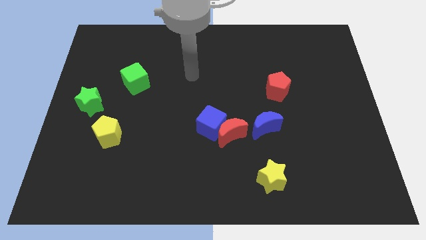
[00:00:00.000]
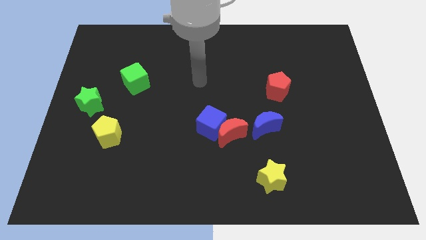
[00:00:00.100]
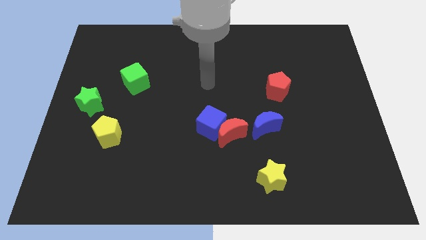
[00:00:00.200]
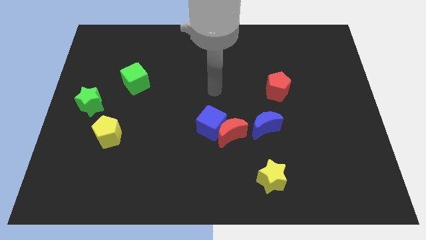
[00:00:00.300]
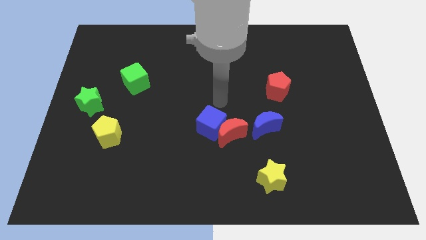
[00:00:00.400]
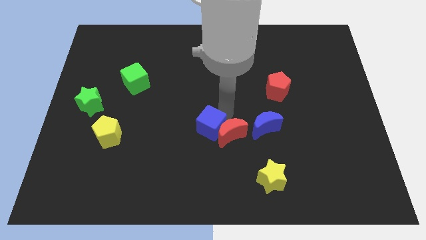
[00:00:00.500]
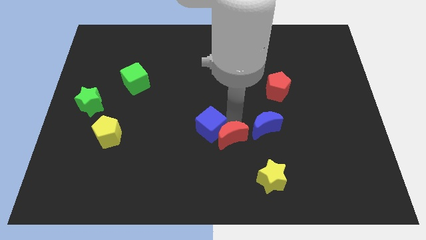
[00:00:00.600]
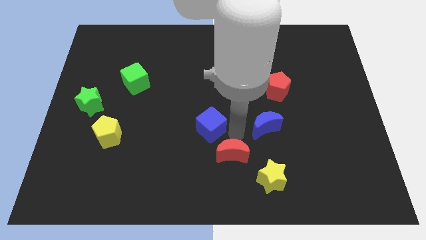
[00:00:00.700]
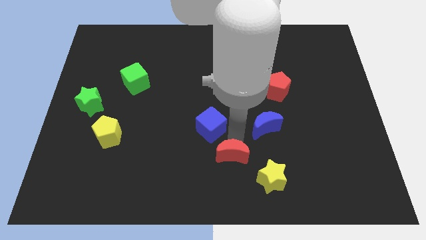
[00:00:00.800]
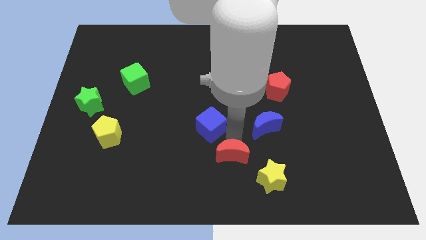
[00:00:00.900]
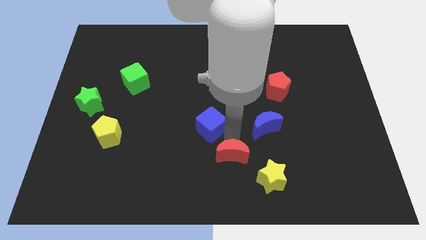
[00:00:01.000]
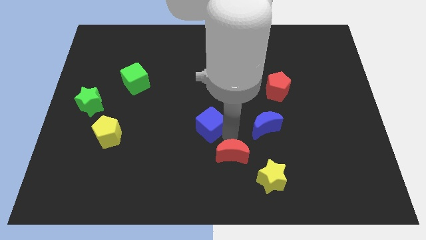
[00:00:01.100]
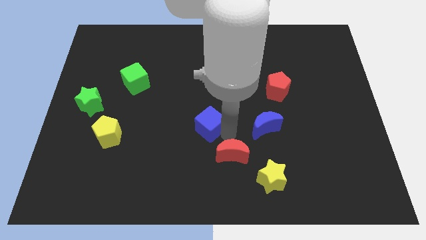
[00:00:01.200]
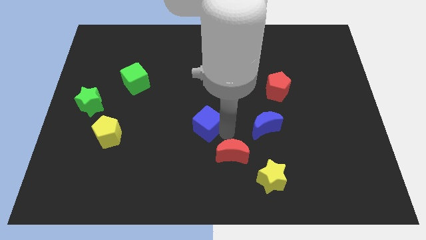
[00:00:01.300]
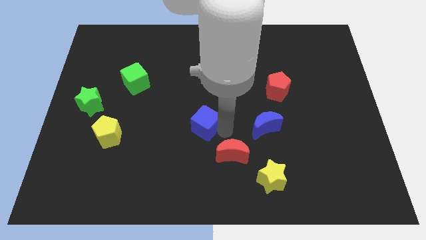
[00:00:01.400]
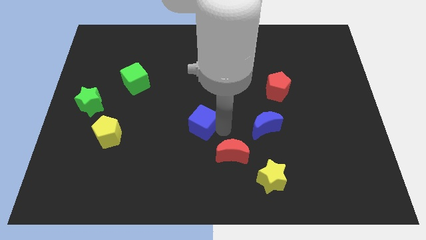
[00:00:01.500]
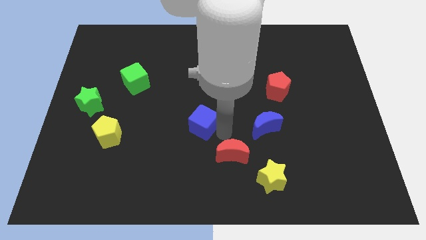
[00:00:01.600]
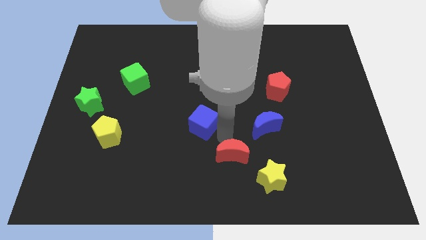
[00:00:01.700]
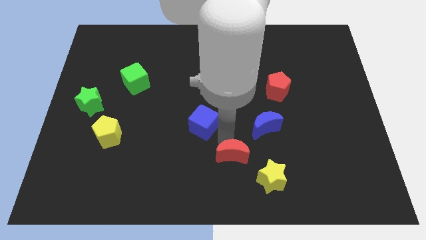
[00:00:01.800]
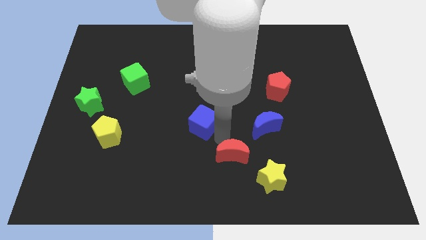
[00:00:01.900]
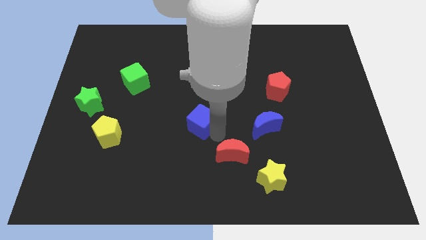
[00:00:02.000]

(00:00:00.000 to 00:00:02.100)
separate the blue cube from the red moon

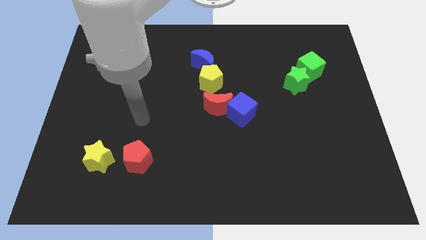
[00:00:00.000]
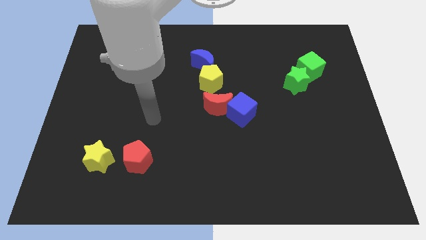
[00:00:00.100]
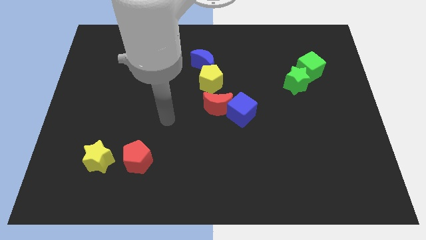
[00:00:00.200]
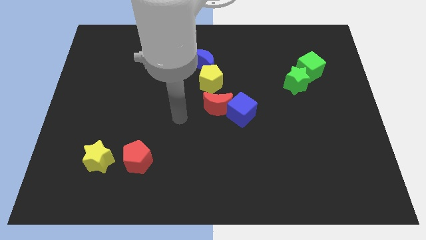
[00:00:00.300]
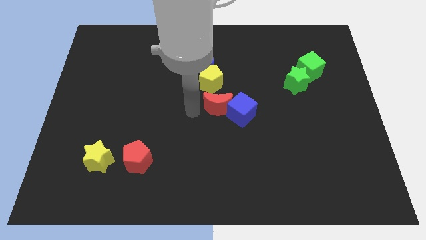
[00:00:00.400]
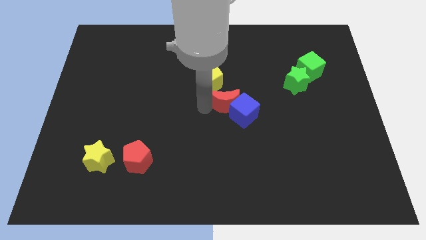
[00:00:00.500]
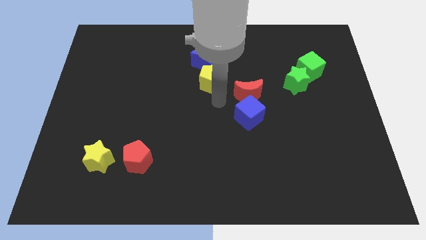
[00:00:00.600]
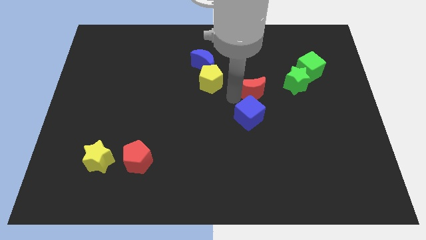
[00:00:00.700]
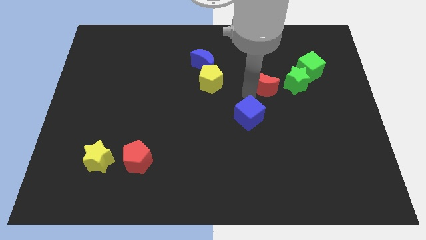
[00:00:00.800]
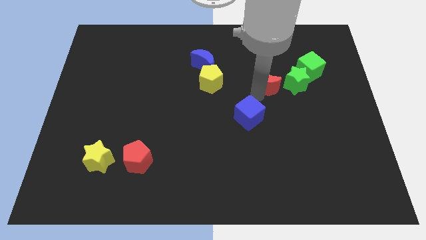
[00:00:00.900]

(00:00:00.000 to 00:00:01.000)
move the blue cube away from the red moon

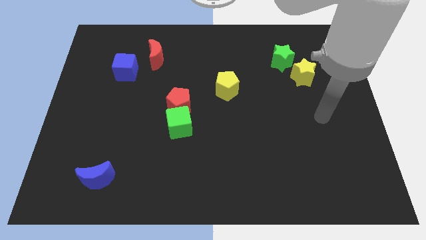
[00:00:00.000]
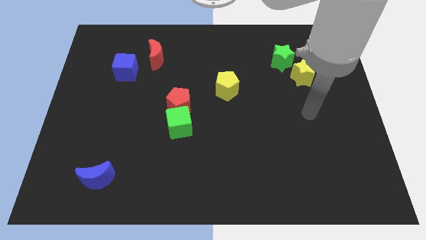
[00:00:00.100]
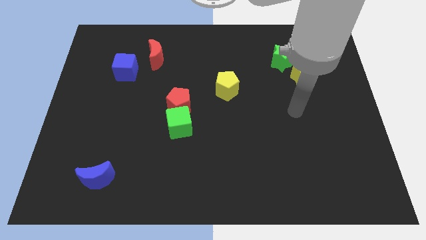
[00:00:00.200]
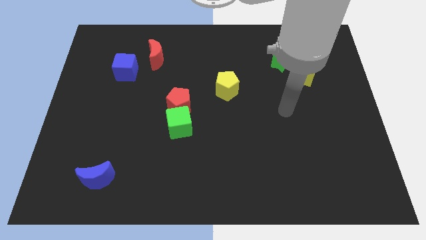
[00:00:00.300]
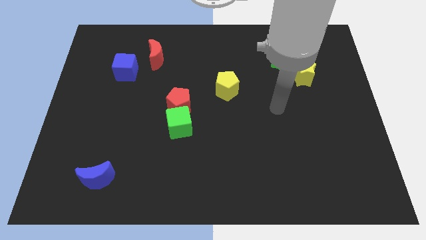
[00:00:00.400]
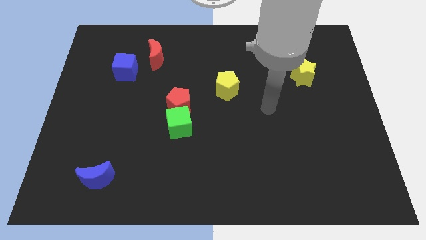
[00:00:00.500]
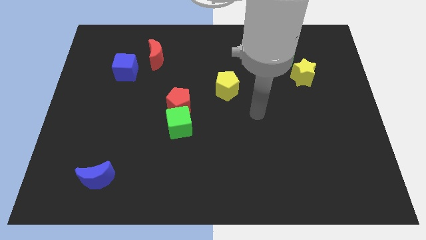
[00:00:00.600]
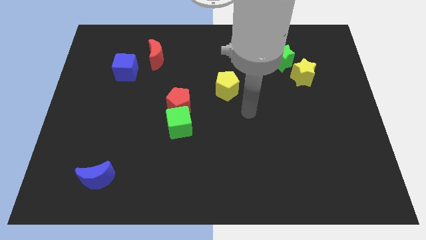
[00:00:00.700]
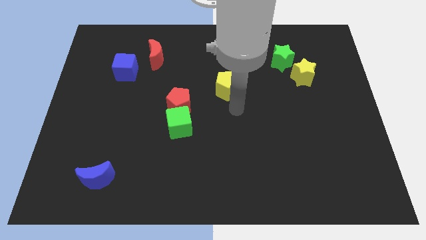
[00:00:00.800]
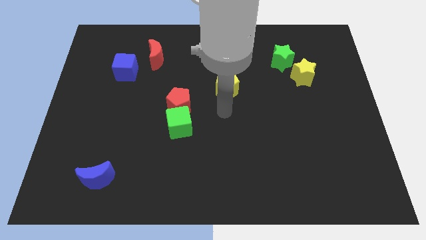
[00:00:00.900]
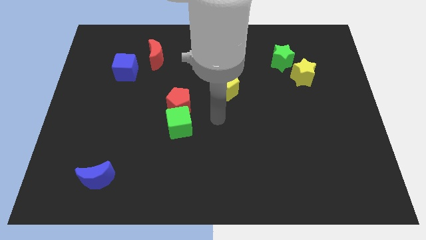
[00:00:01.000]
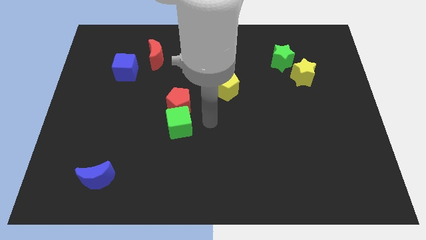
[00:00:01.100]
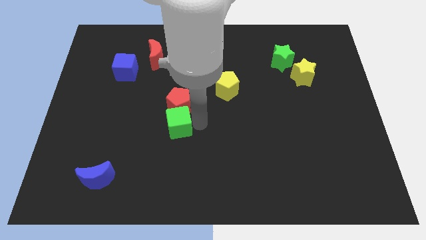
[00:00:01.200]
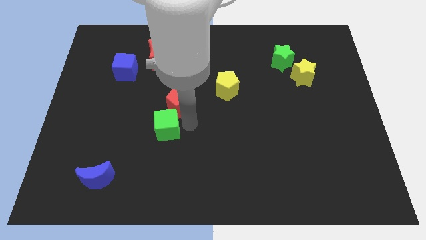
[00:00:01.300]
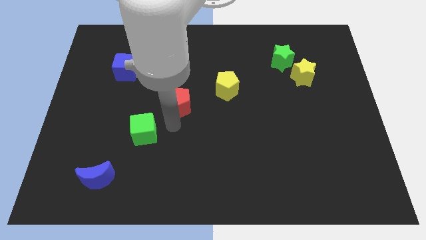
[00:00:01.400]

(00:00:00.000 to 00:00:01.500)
separate the red pentagon from the green cube

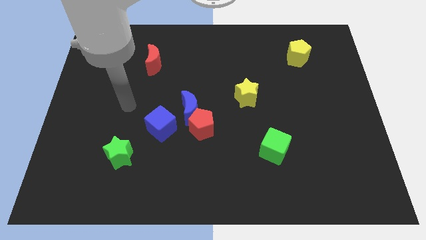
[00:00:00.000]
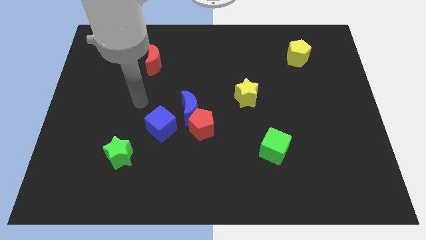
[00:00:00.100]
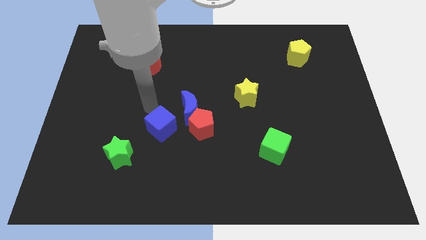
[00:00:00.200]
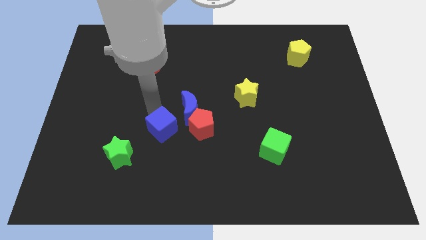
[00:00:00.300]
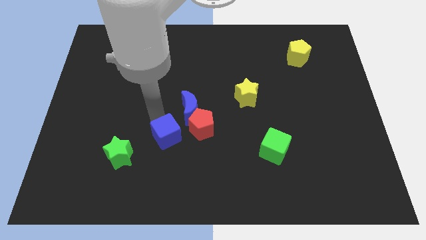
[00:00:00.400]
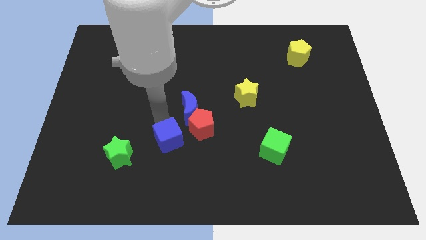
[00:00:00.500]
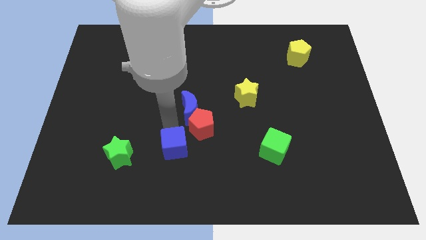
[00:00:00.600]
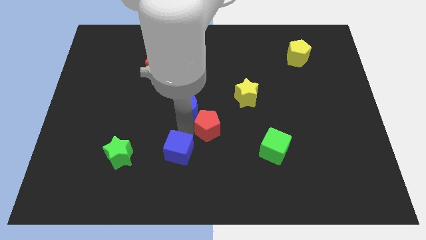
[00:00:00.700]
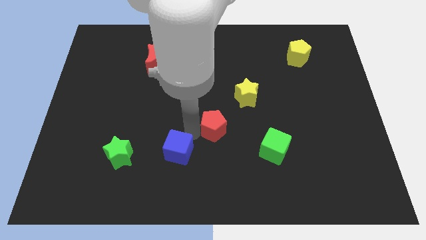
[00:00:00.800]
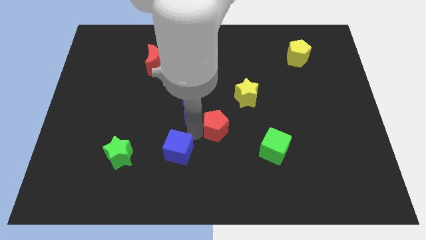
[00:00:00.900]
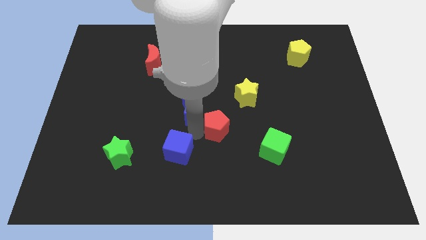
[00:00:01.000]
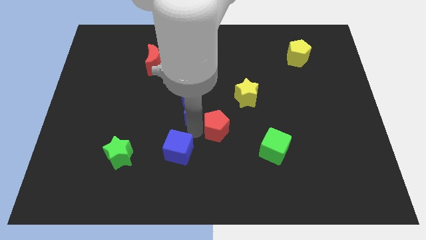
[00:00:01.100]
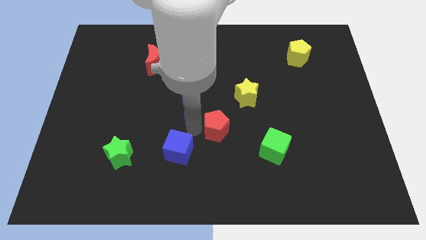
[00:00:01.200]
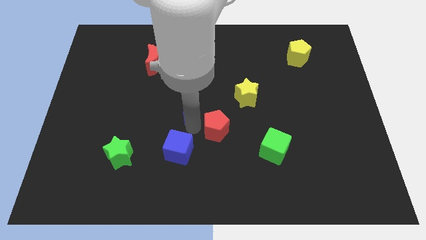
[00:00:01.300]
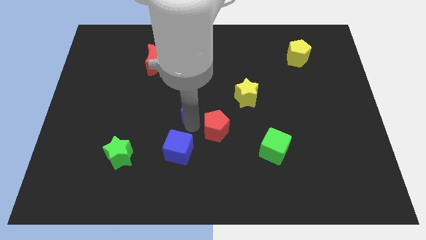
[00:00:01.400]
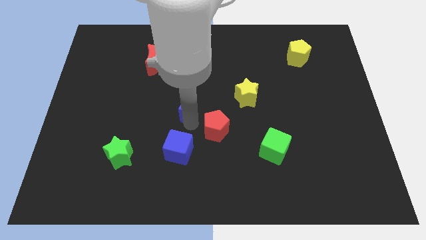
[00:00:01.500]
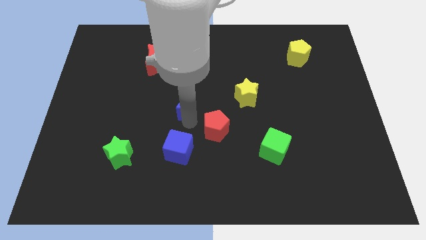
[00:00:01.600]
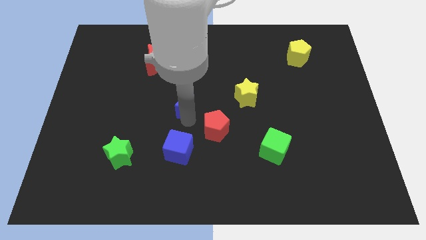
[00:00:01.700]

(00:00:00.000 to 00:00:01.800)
separate the blue moon from the red pentagon and blue cube

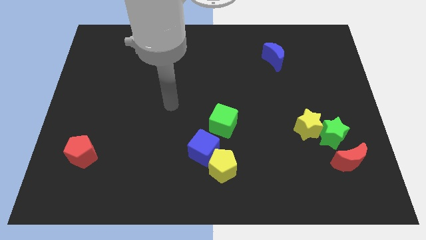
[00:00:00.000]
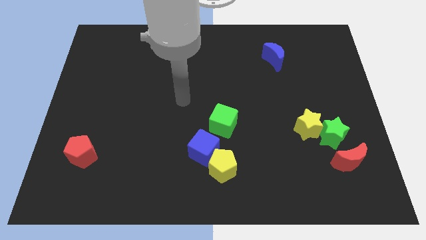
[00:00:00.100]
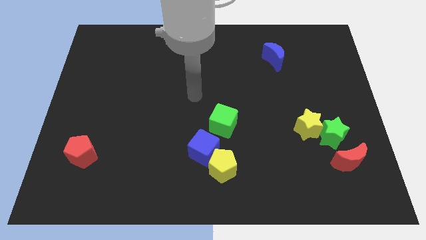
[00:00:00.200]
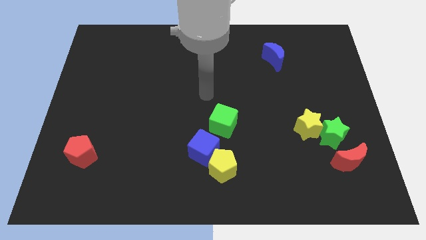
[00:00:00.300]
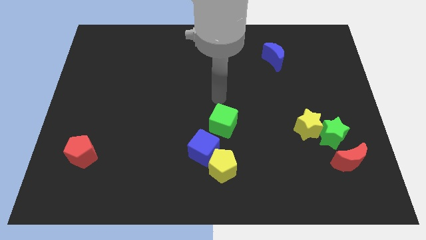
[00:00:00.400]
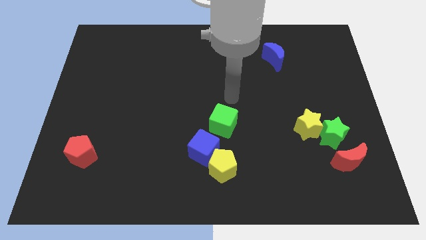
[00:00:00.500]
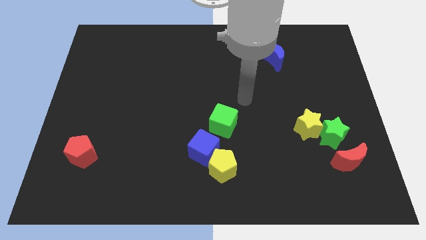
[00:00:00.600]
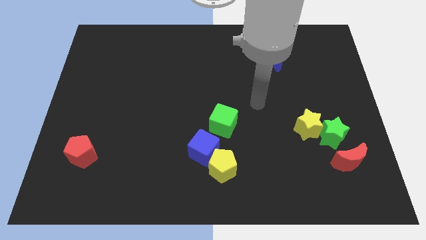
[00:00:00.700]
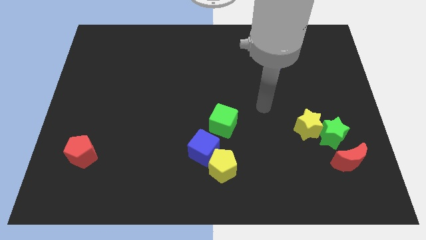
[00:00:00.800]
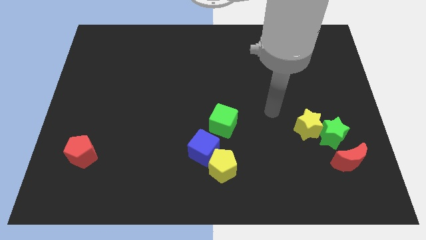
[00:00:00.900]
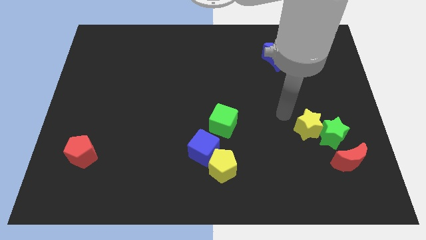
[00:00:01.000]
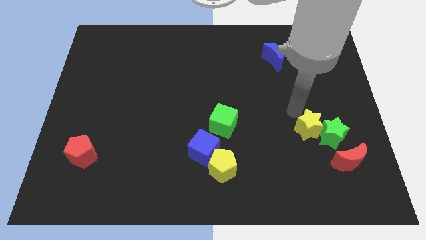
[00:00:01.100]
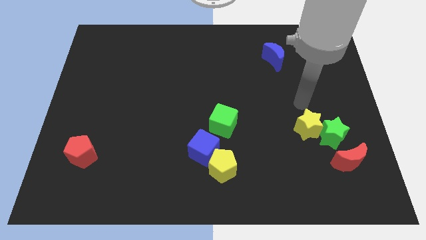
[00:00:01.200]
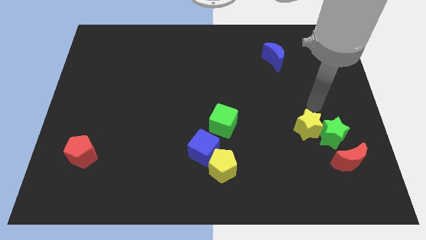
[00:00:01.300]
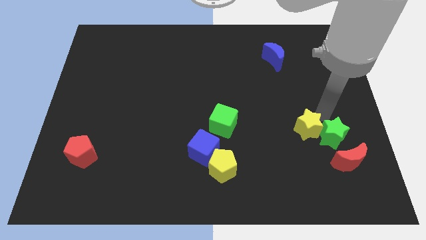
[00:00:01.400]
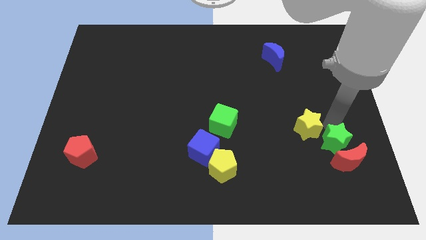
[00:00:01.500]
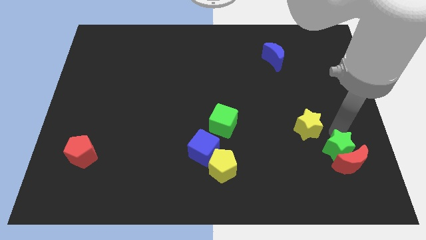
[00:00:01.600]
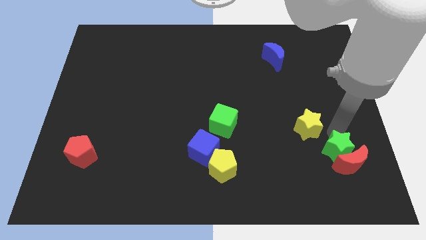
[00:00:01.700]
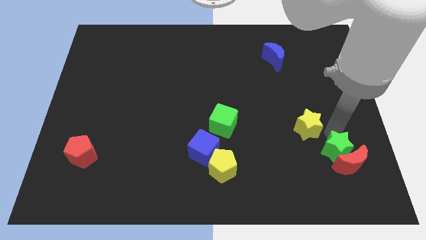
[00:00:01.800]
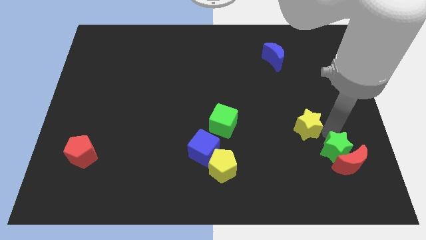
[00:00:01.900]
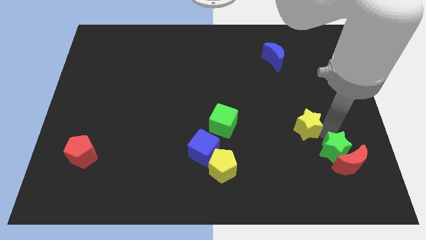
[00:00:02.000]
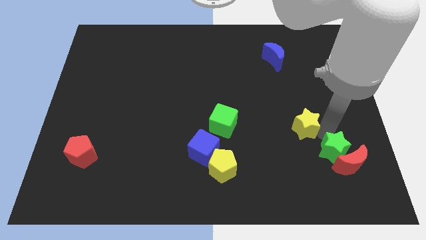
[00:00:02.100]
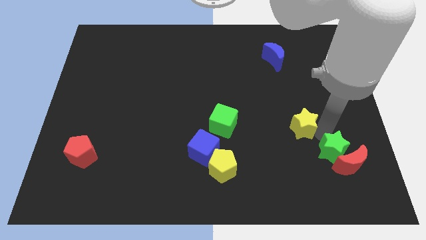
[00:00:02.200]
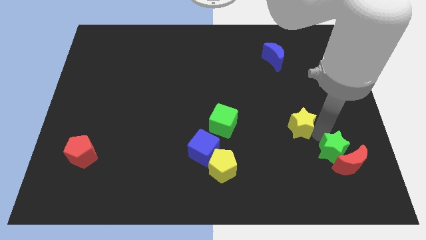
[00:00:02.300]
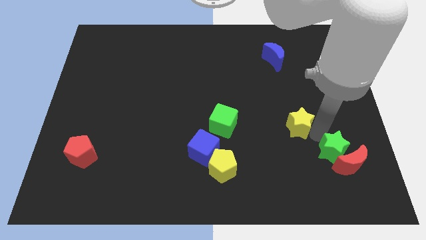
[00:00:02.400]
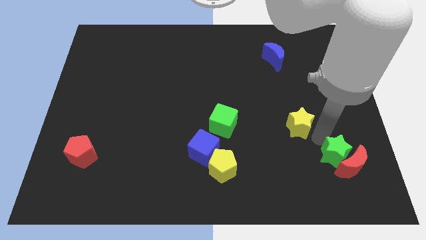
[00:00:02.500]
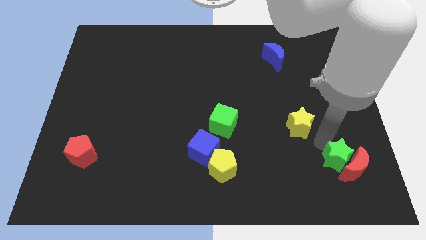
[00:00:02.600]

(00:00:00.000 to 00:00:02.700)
separate the yellow star from the green star
